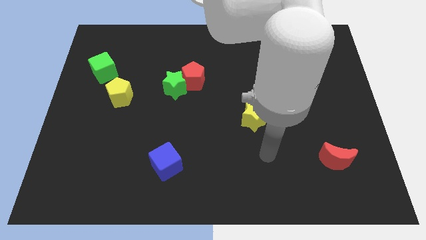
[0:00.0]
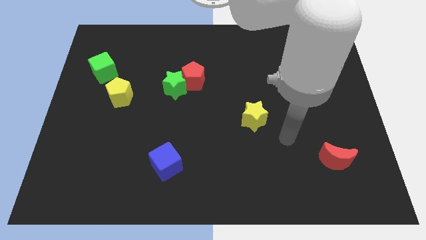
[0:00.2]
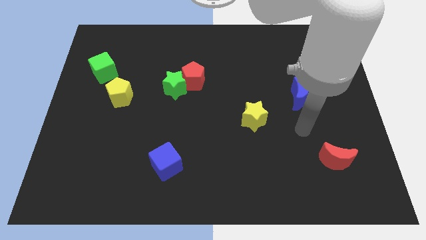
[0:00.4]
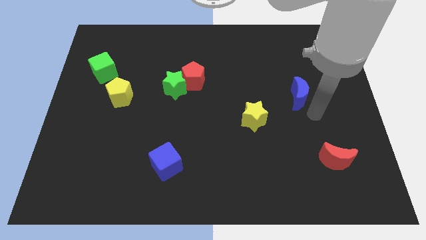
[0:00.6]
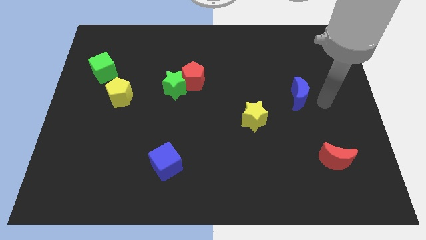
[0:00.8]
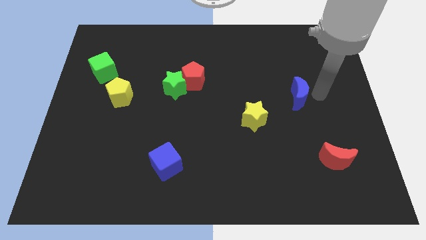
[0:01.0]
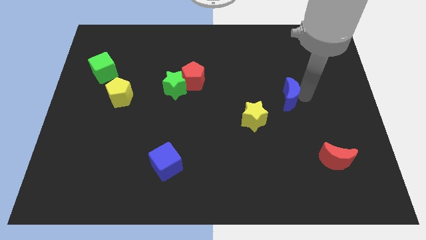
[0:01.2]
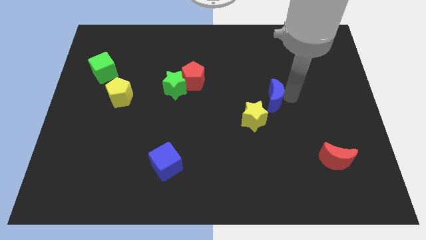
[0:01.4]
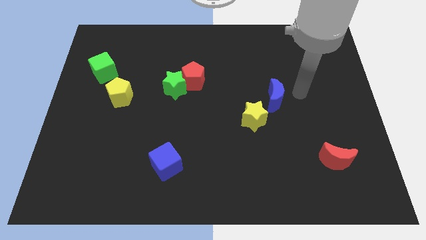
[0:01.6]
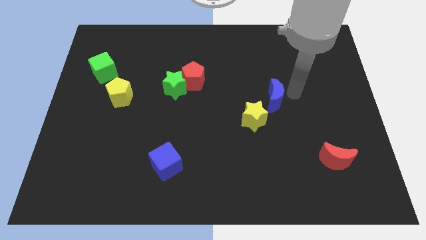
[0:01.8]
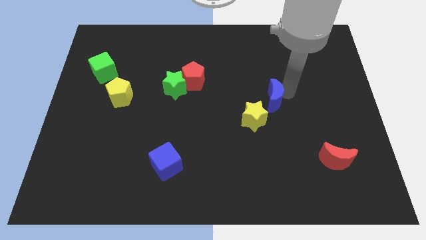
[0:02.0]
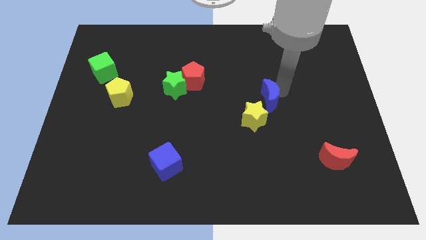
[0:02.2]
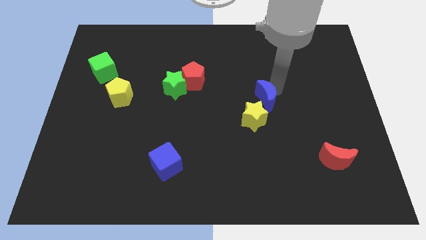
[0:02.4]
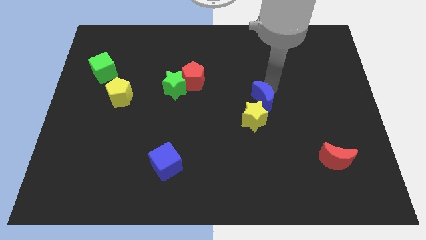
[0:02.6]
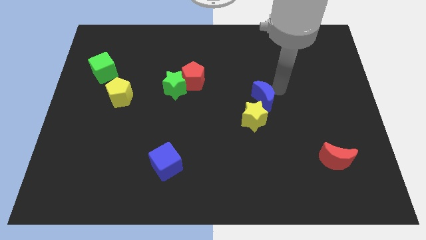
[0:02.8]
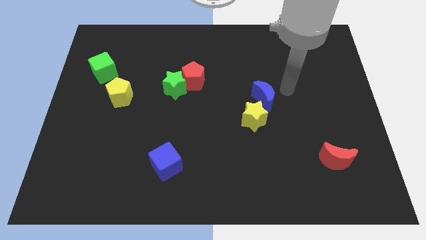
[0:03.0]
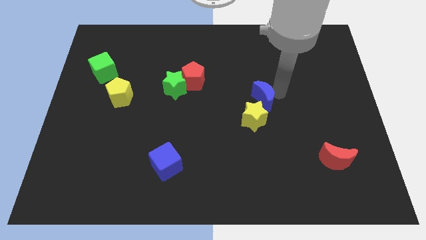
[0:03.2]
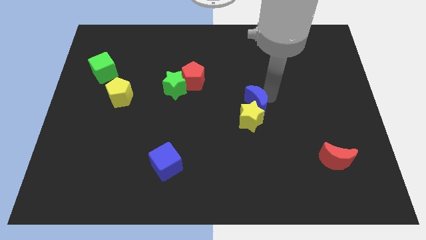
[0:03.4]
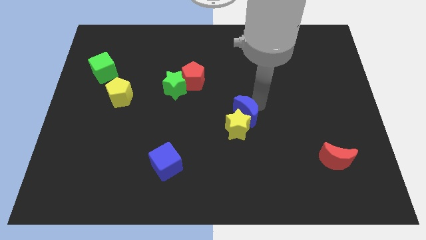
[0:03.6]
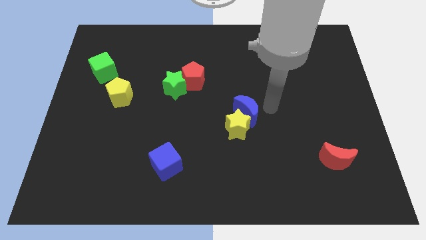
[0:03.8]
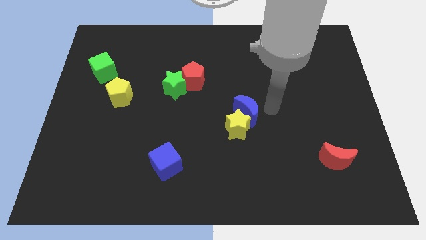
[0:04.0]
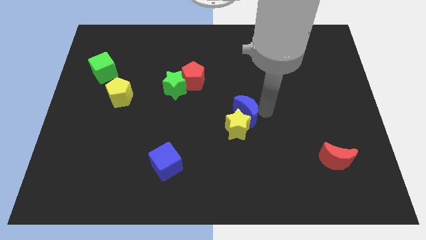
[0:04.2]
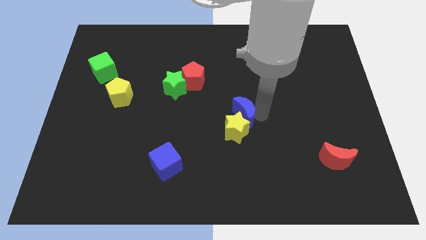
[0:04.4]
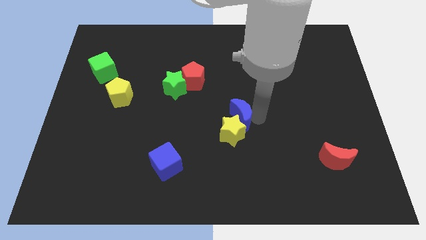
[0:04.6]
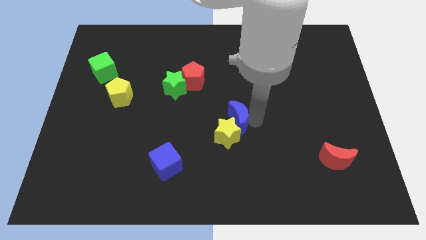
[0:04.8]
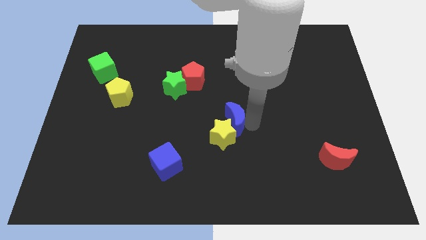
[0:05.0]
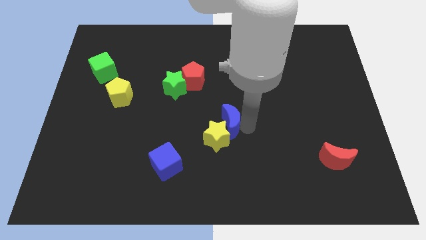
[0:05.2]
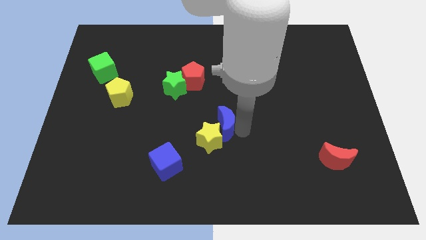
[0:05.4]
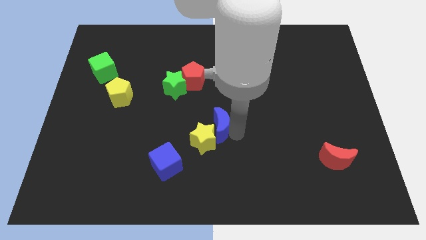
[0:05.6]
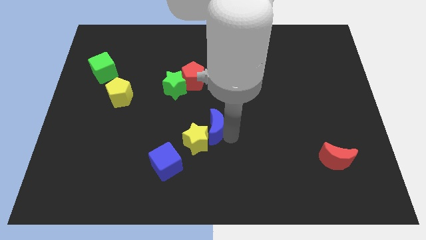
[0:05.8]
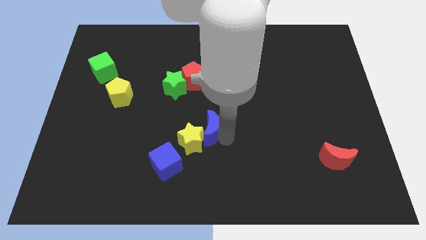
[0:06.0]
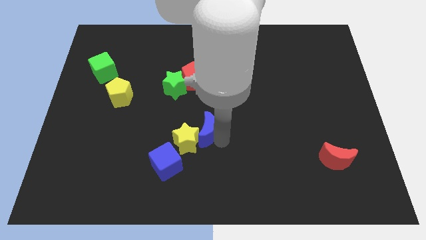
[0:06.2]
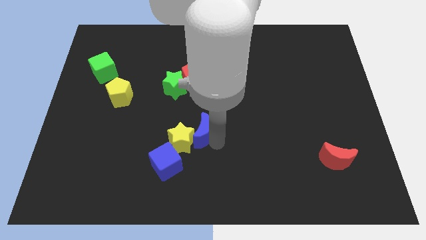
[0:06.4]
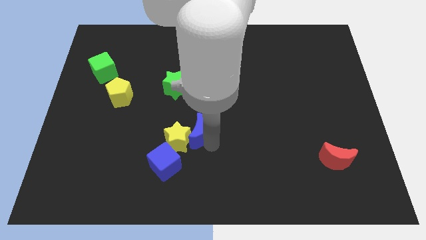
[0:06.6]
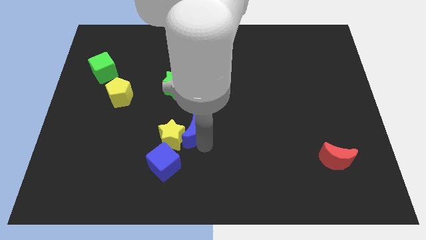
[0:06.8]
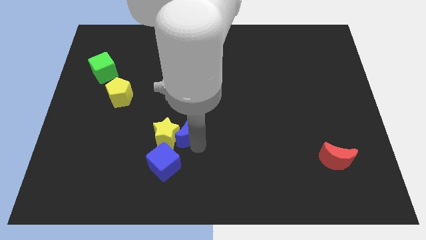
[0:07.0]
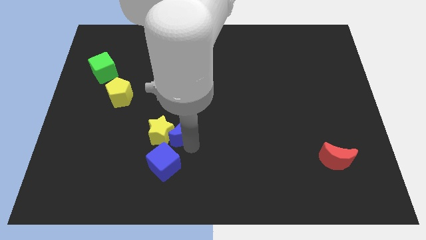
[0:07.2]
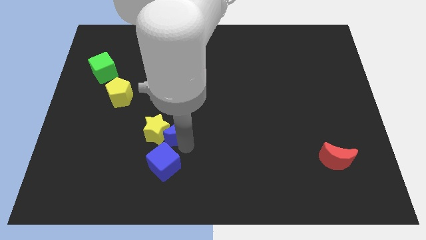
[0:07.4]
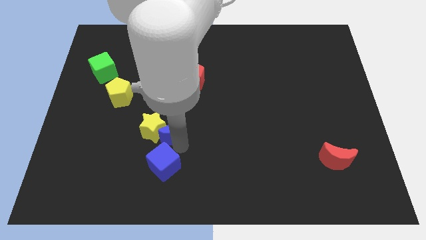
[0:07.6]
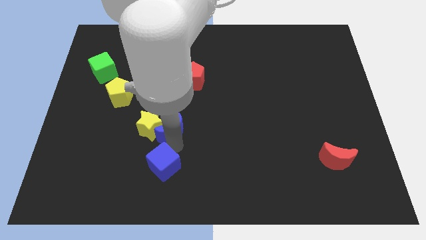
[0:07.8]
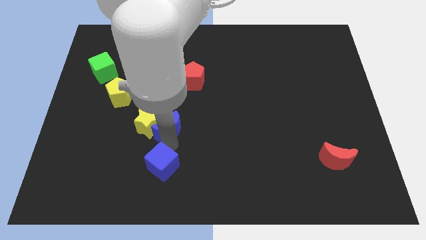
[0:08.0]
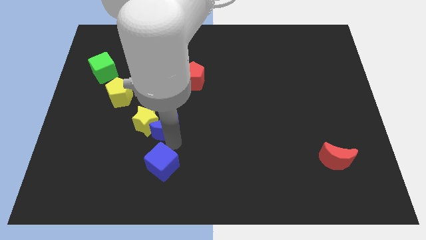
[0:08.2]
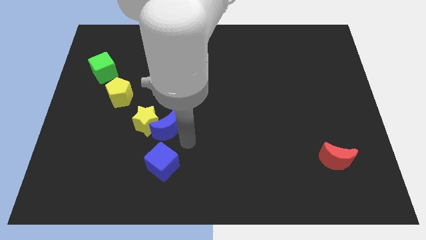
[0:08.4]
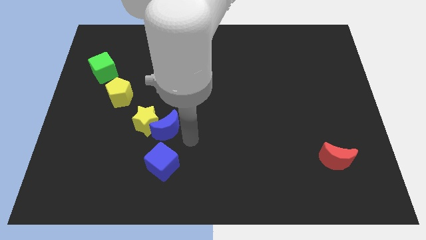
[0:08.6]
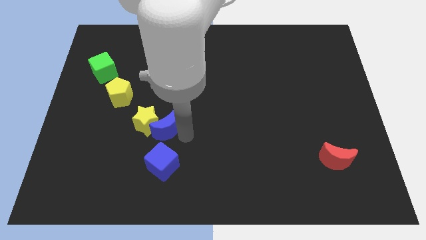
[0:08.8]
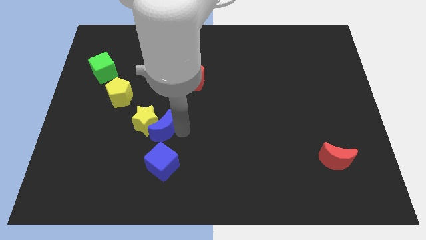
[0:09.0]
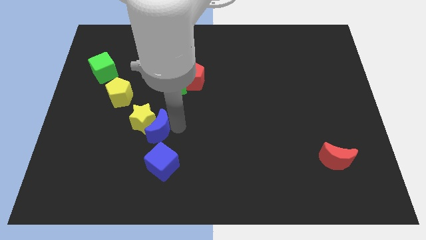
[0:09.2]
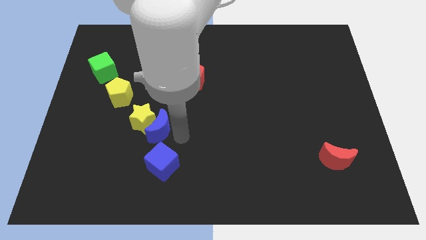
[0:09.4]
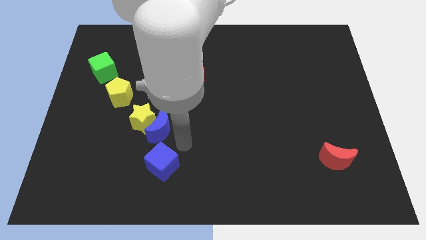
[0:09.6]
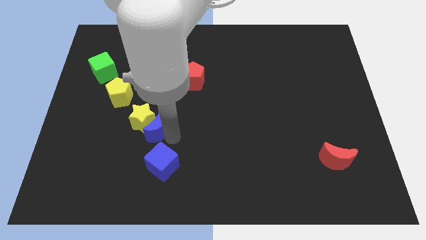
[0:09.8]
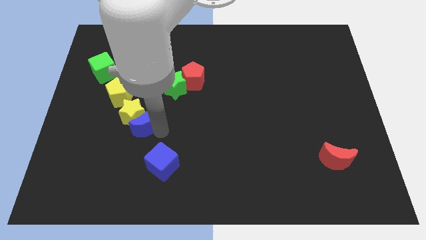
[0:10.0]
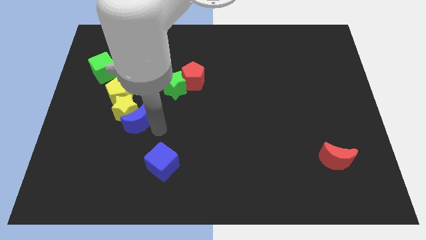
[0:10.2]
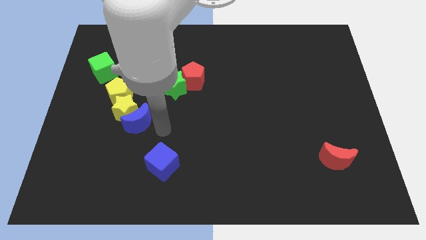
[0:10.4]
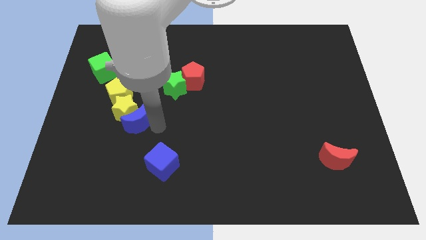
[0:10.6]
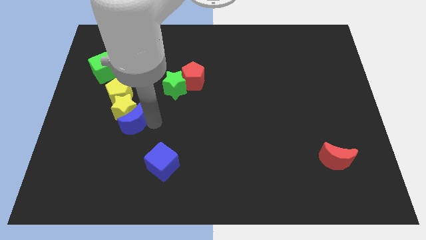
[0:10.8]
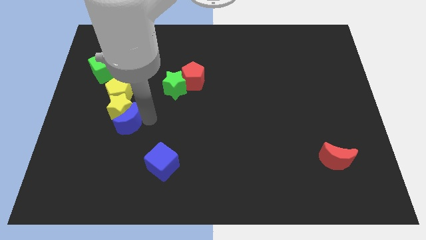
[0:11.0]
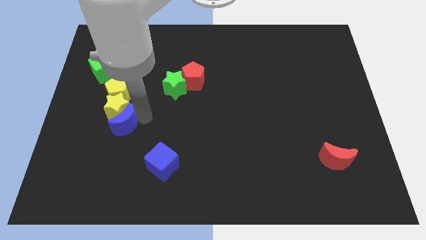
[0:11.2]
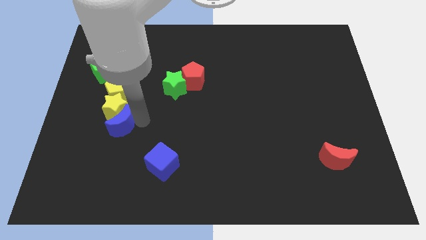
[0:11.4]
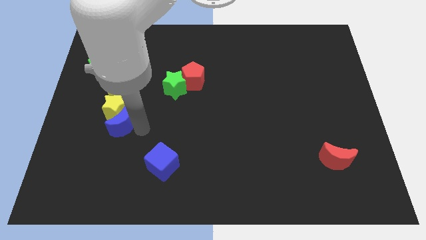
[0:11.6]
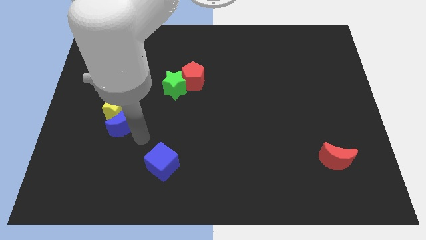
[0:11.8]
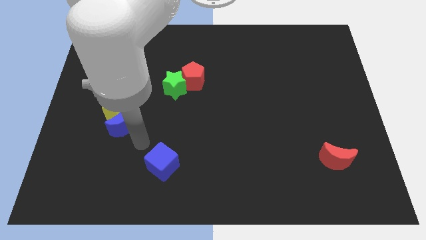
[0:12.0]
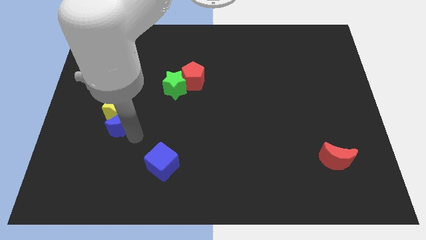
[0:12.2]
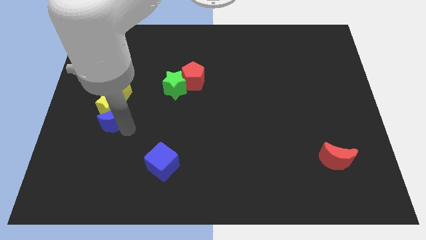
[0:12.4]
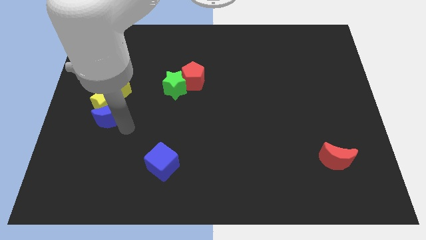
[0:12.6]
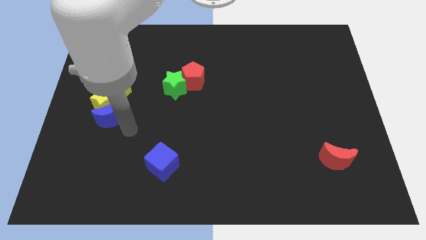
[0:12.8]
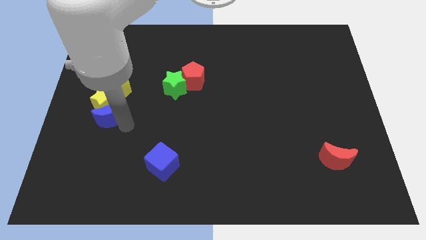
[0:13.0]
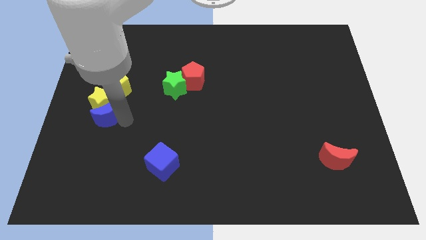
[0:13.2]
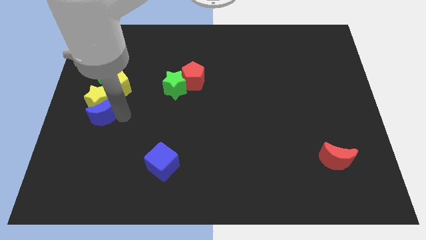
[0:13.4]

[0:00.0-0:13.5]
push the blue moon to the bottom left of the yellow pentagon
